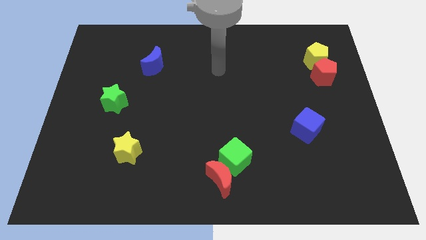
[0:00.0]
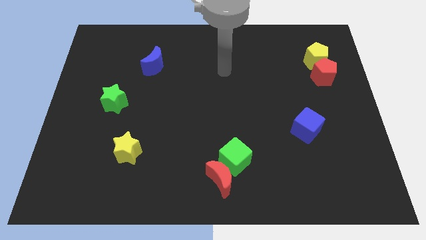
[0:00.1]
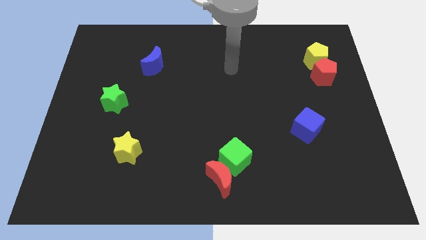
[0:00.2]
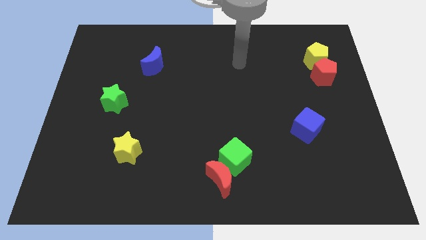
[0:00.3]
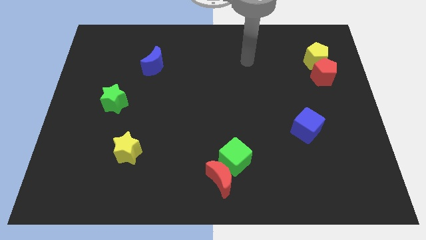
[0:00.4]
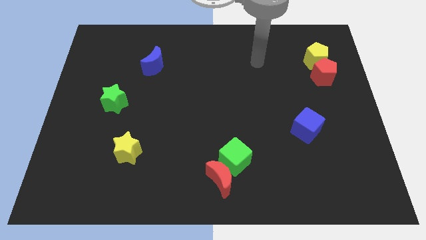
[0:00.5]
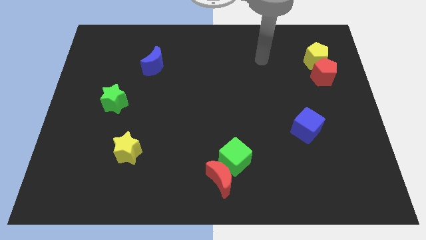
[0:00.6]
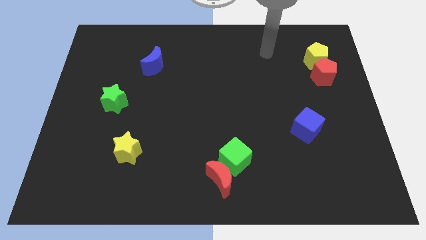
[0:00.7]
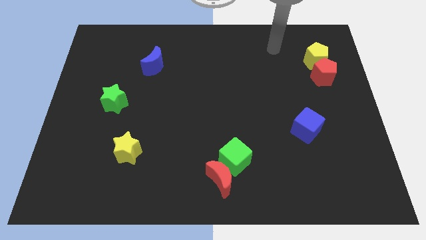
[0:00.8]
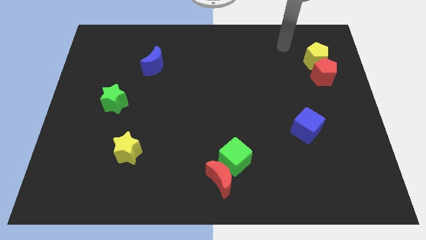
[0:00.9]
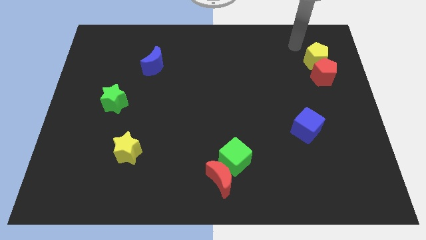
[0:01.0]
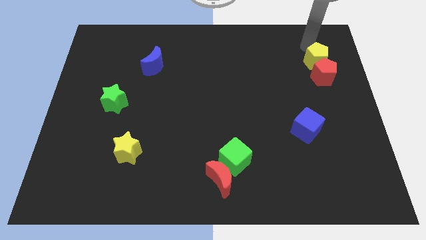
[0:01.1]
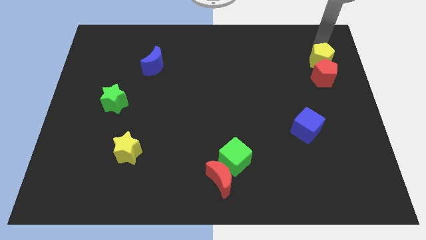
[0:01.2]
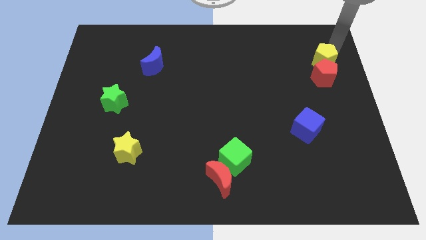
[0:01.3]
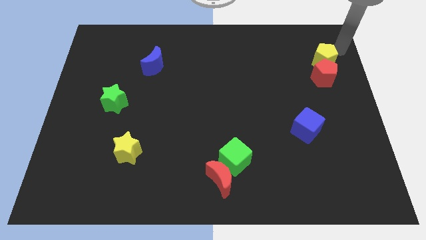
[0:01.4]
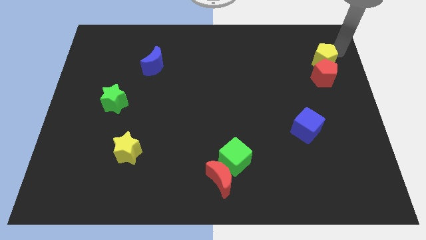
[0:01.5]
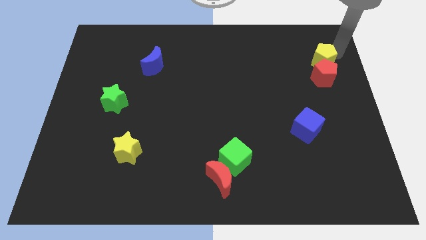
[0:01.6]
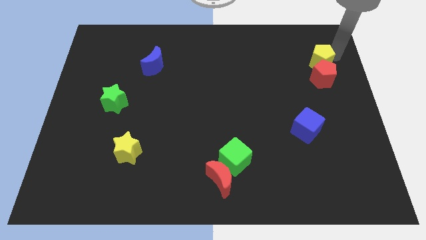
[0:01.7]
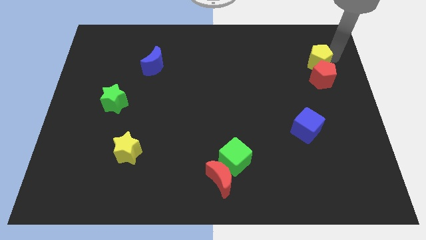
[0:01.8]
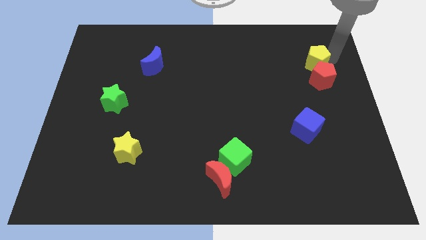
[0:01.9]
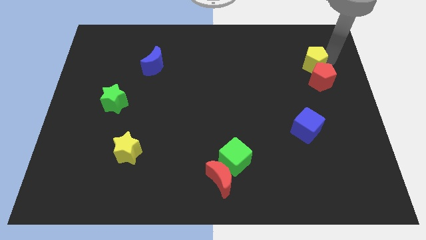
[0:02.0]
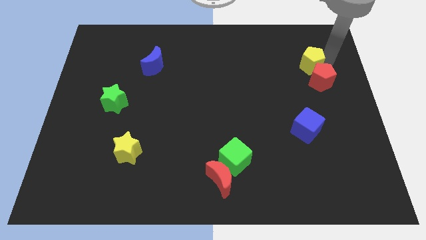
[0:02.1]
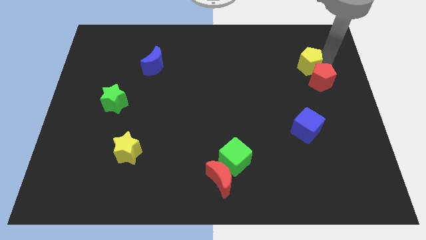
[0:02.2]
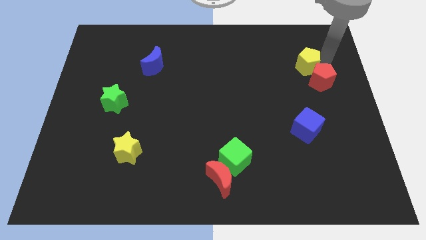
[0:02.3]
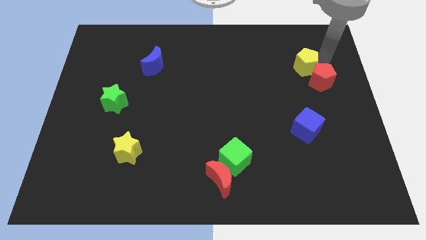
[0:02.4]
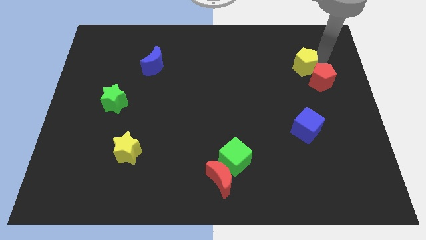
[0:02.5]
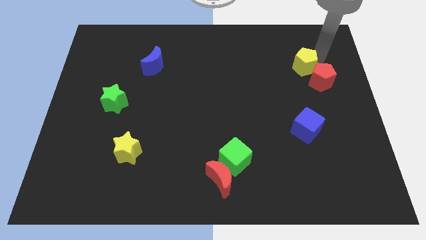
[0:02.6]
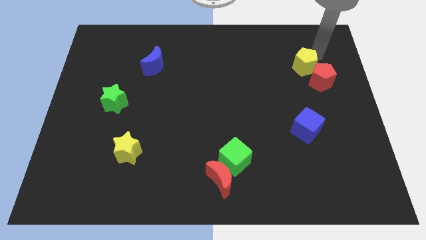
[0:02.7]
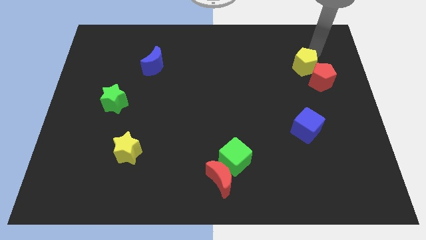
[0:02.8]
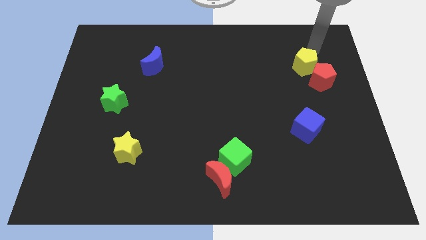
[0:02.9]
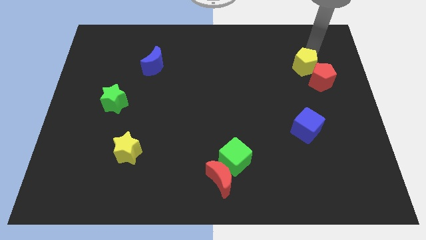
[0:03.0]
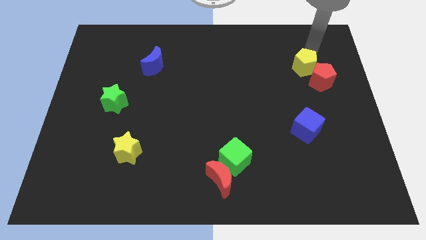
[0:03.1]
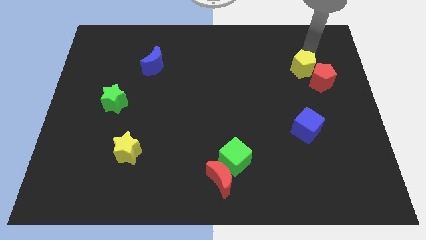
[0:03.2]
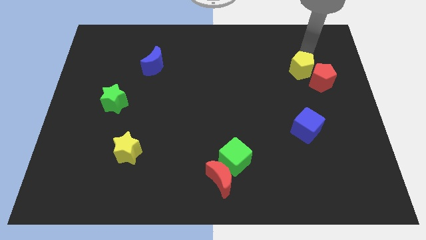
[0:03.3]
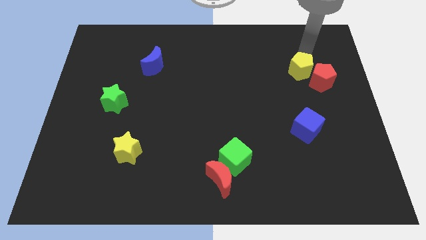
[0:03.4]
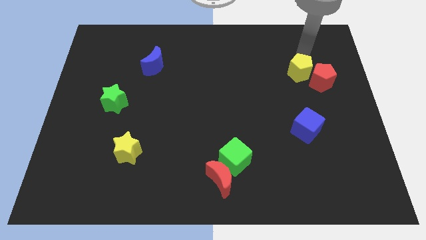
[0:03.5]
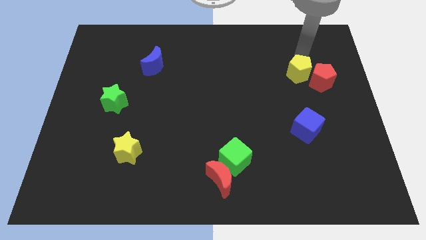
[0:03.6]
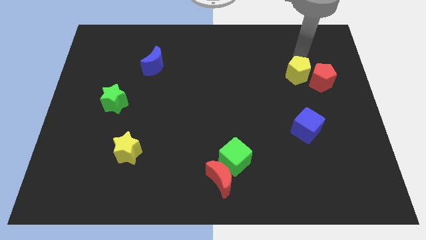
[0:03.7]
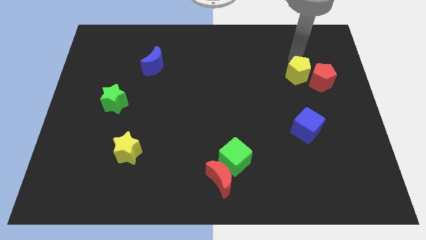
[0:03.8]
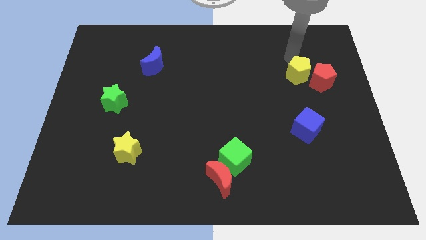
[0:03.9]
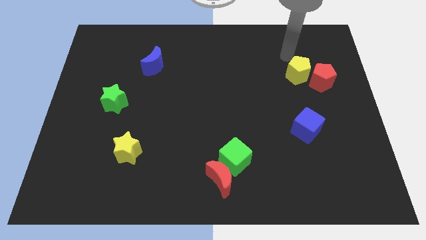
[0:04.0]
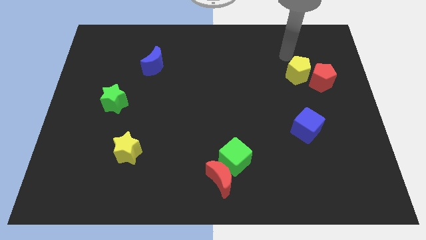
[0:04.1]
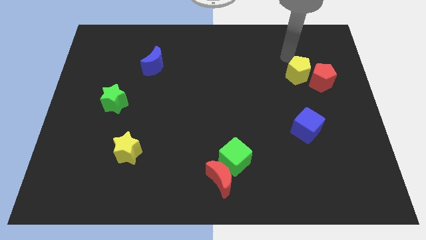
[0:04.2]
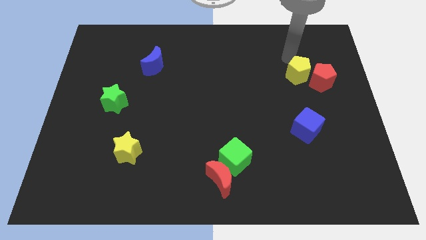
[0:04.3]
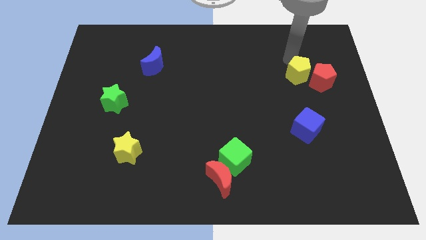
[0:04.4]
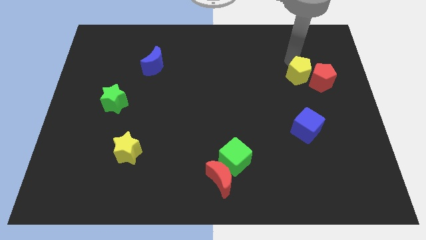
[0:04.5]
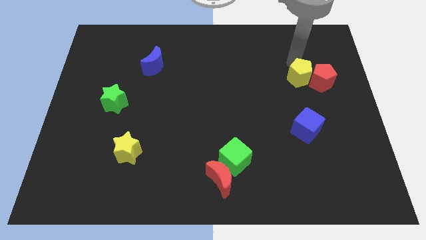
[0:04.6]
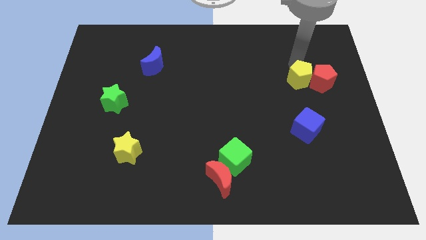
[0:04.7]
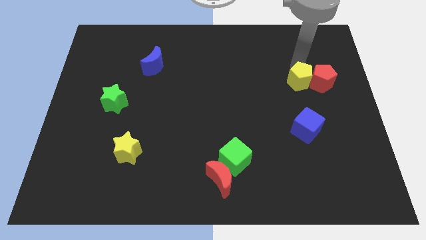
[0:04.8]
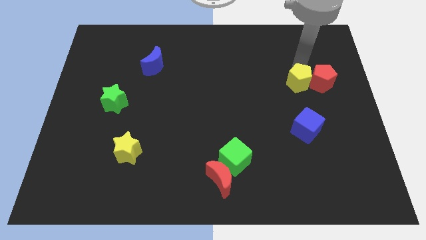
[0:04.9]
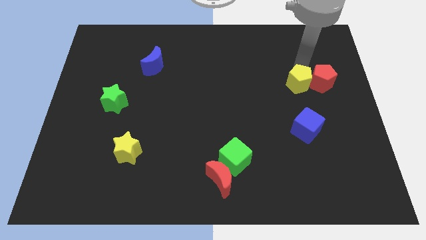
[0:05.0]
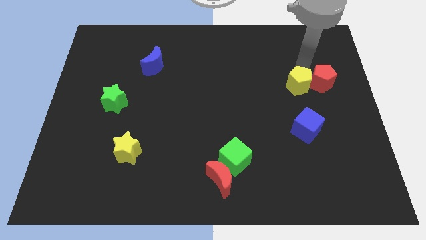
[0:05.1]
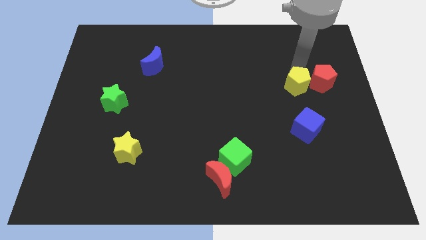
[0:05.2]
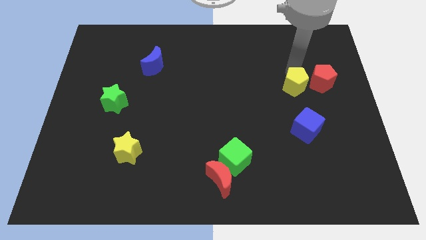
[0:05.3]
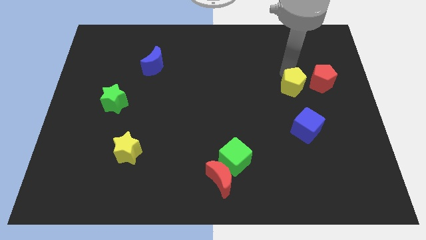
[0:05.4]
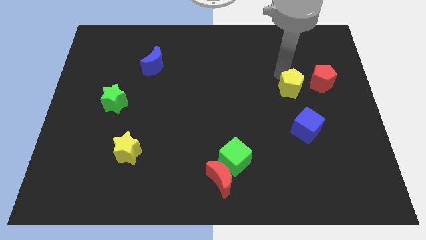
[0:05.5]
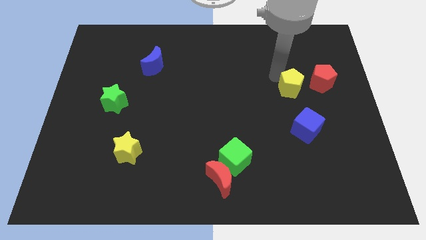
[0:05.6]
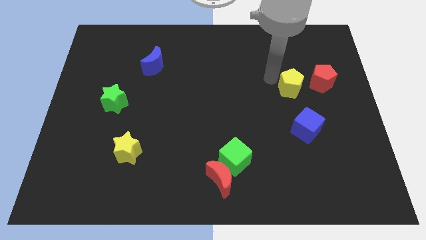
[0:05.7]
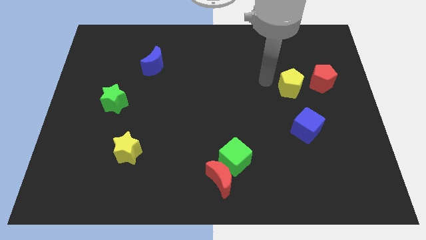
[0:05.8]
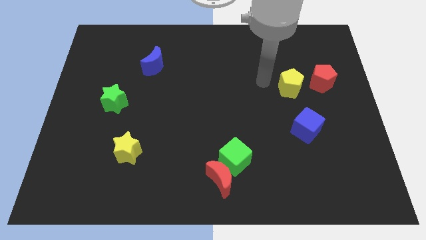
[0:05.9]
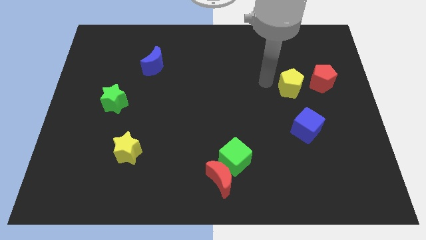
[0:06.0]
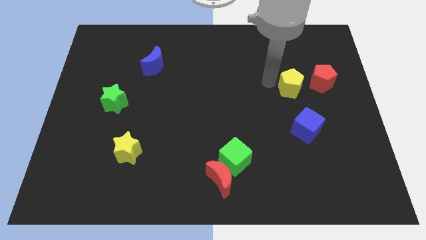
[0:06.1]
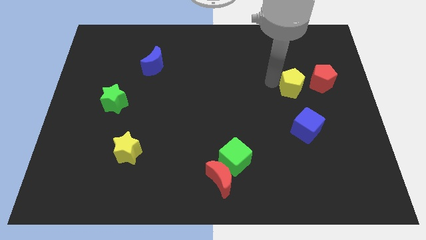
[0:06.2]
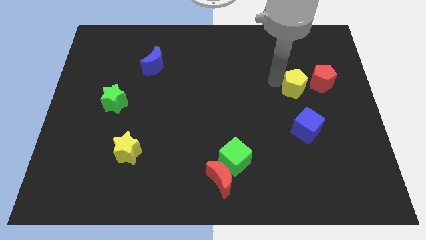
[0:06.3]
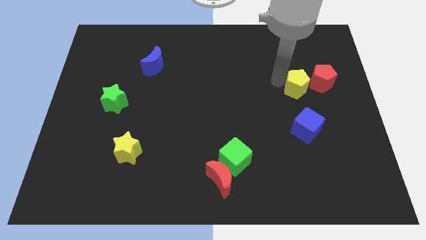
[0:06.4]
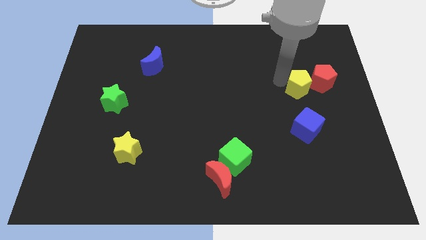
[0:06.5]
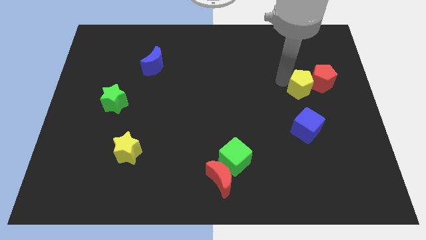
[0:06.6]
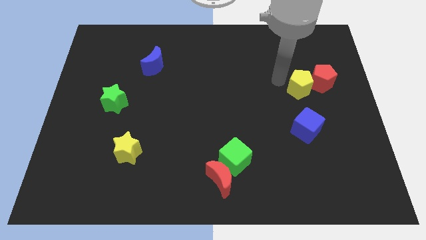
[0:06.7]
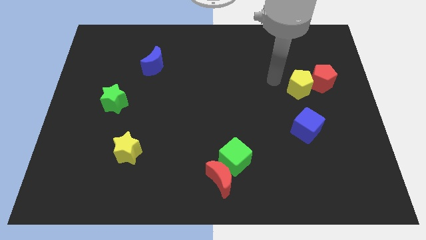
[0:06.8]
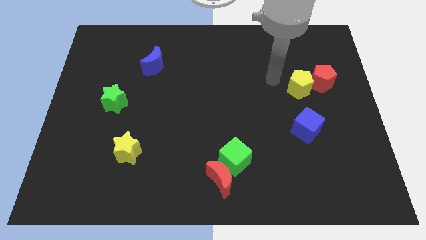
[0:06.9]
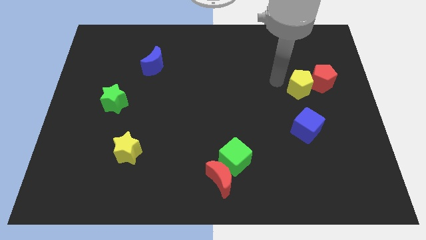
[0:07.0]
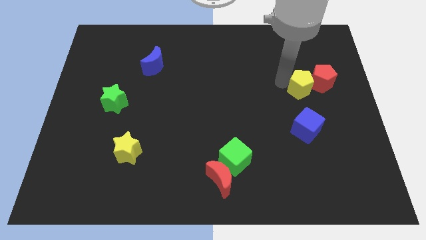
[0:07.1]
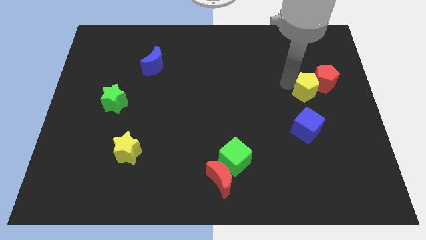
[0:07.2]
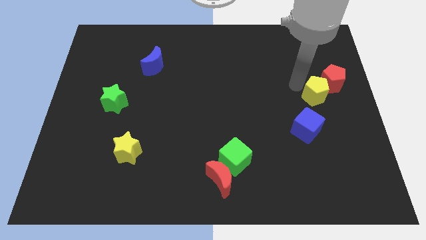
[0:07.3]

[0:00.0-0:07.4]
push the yellow pentagon to the bottom of the red pentagon
